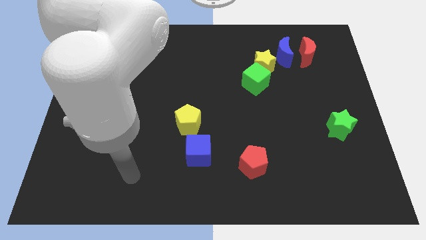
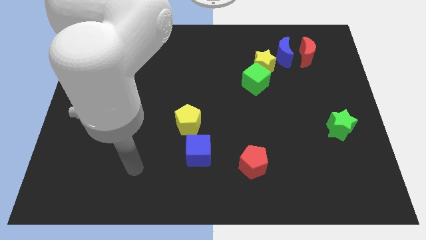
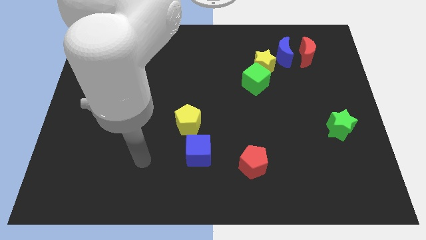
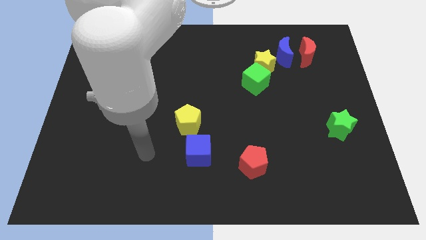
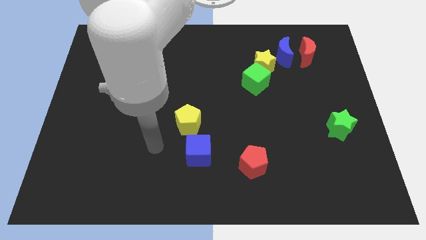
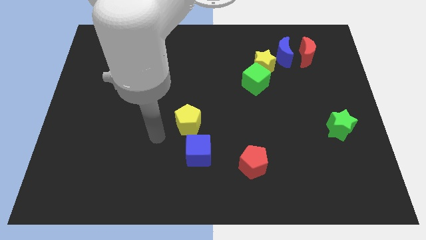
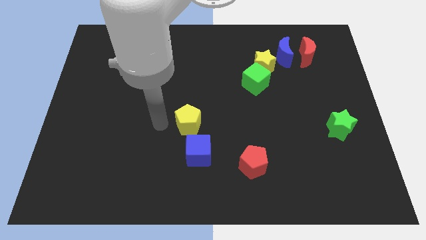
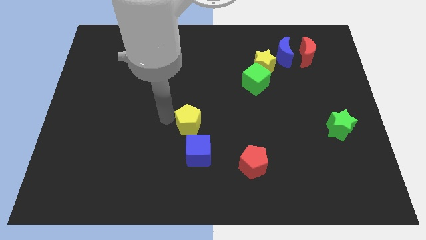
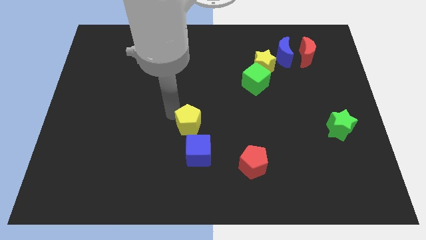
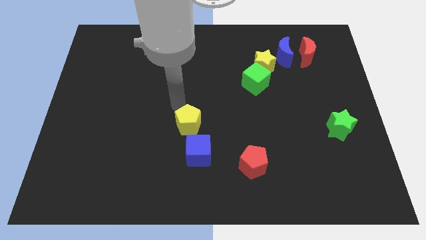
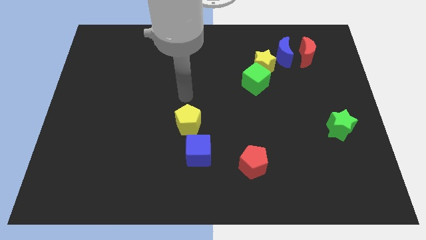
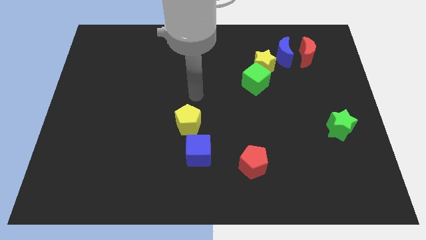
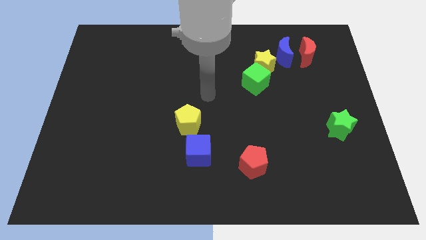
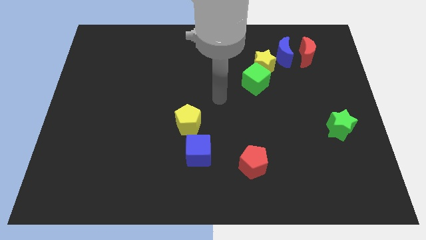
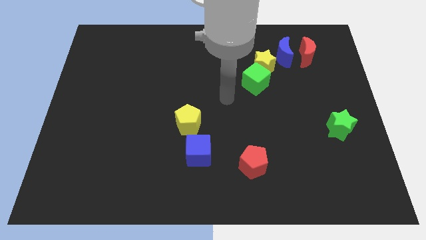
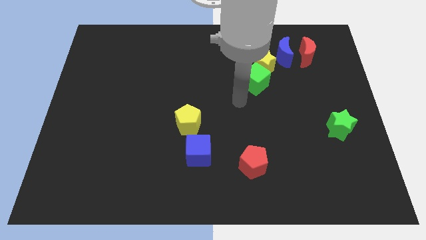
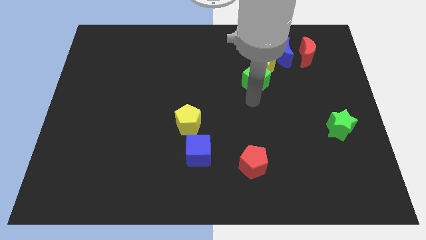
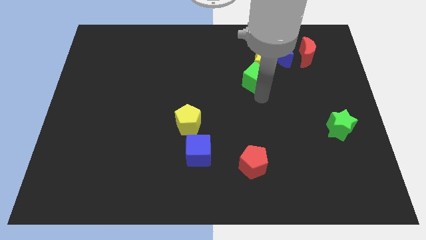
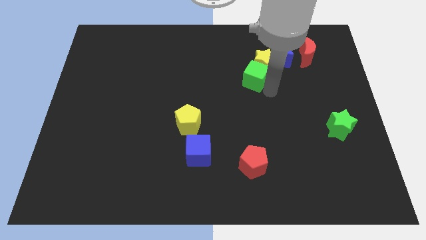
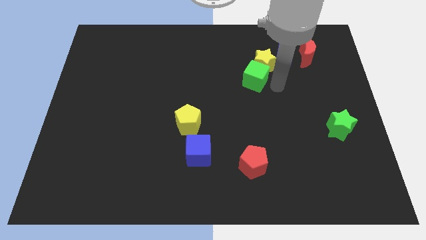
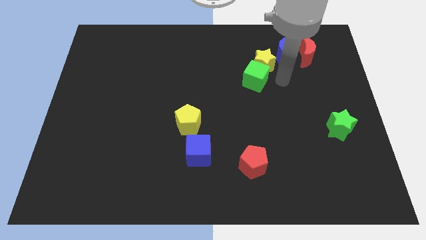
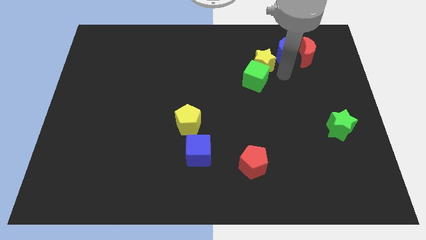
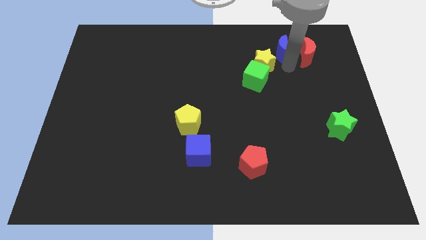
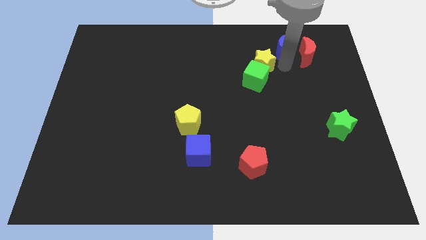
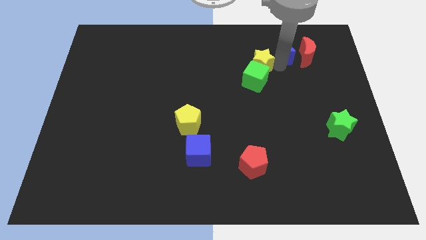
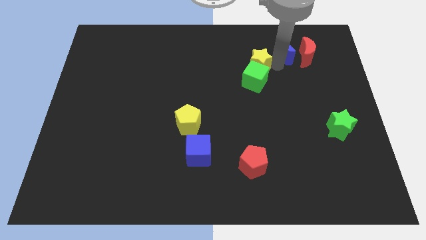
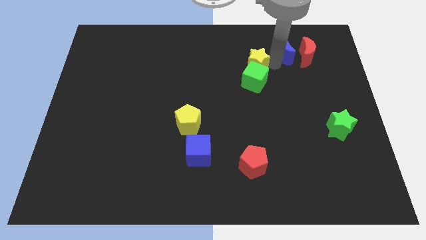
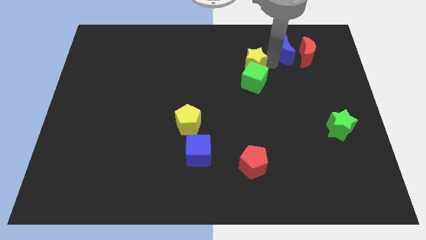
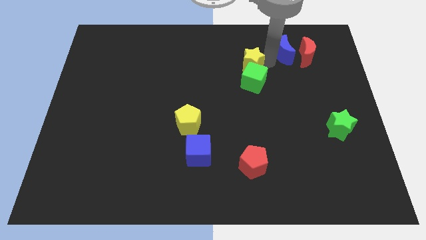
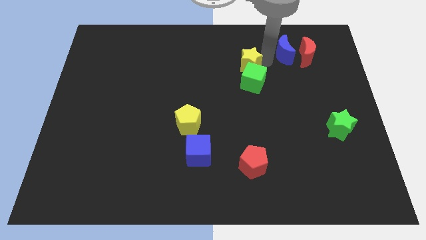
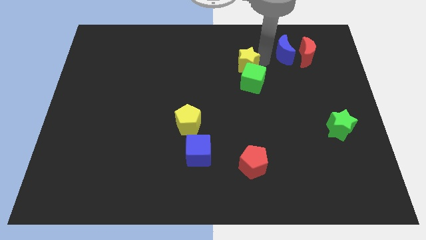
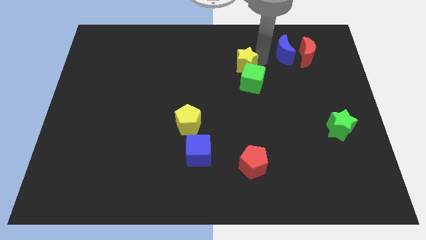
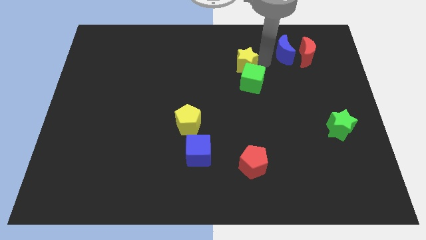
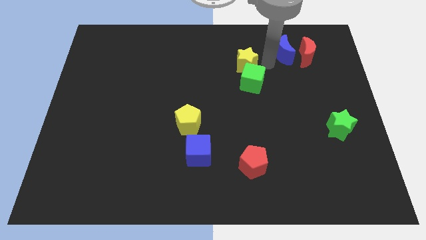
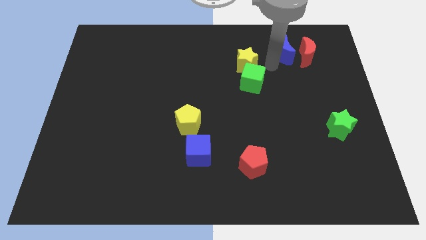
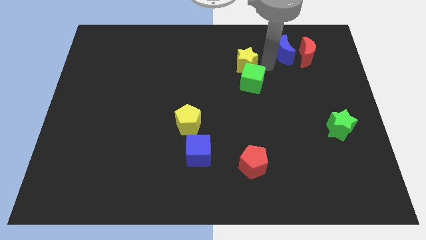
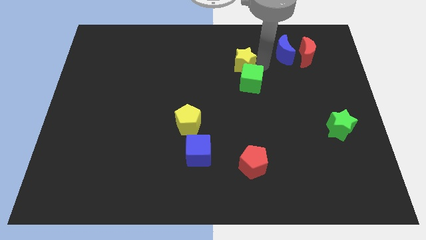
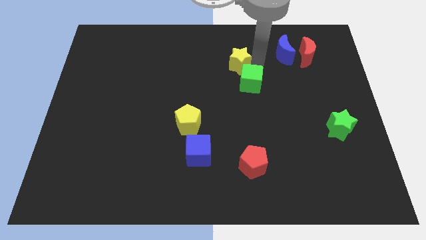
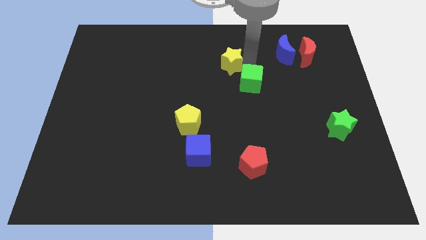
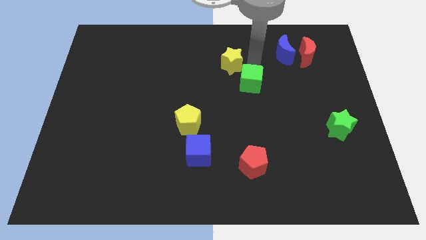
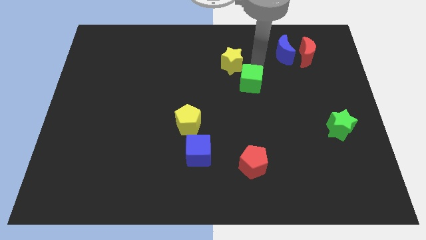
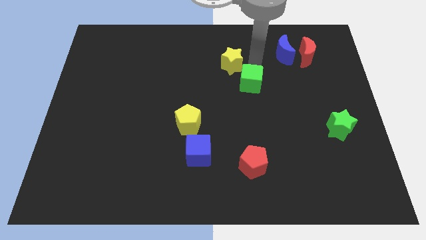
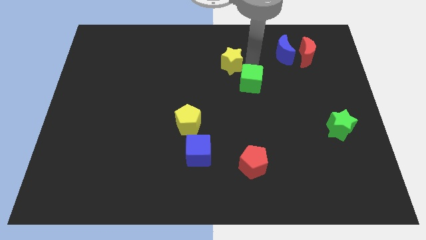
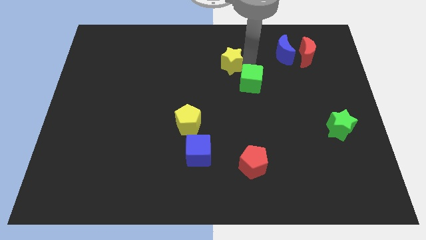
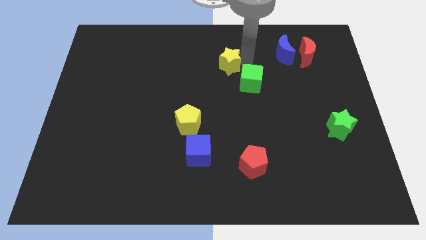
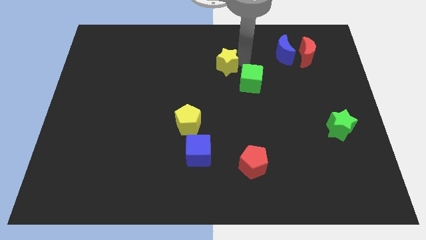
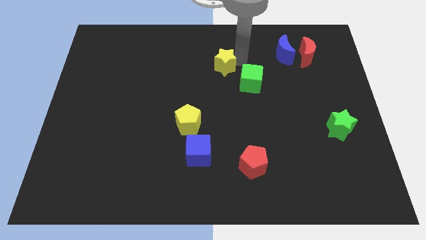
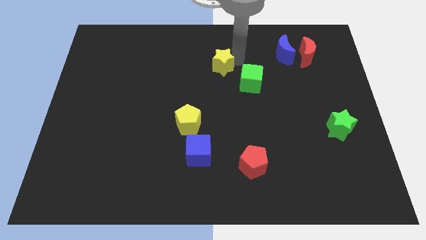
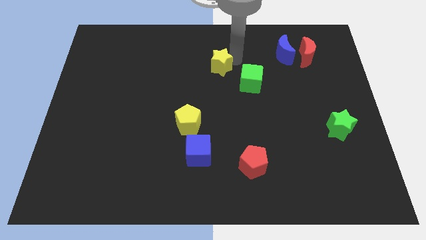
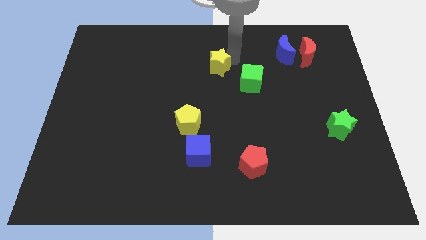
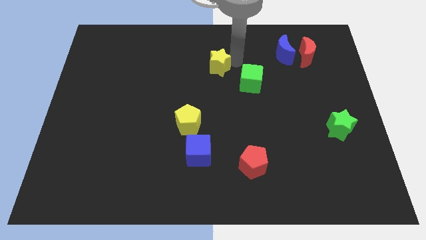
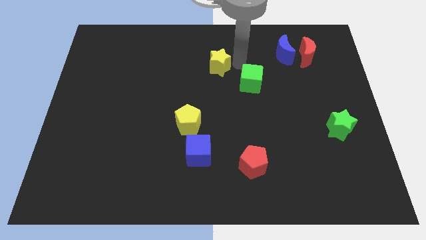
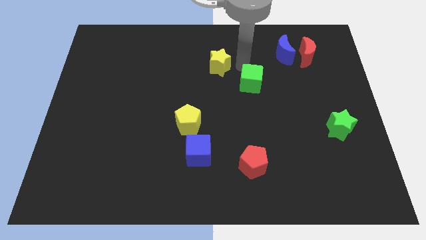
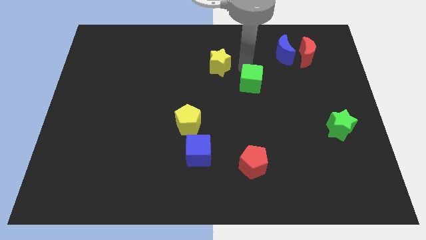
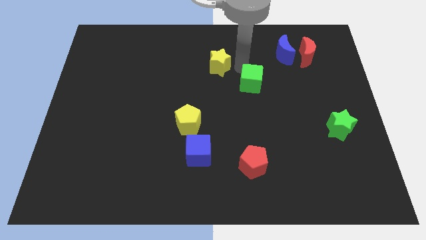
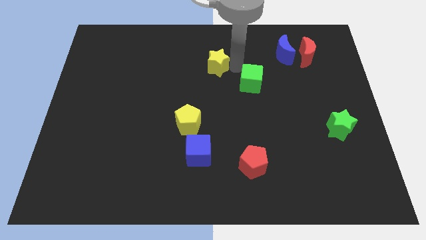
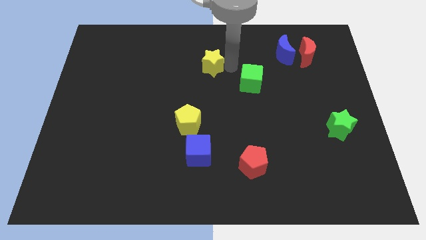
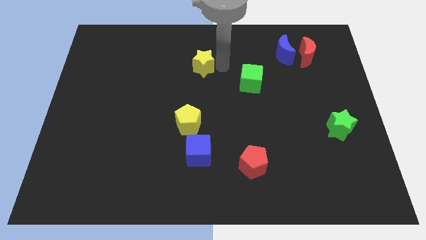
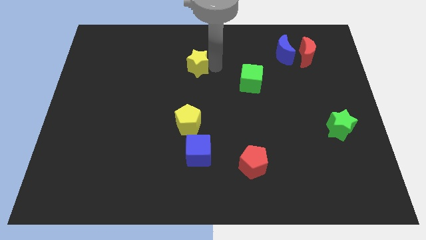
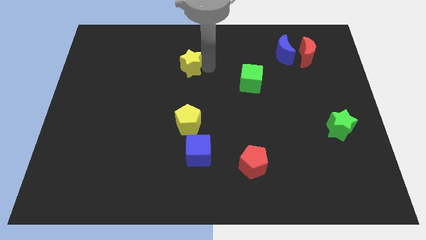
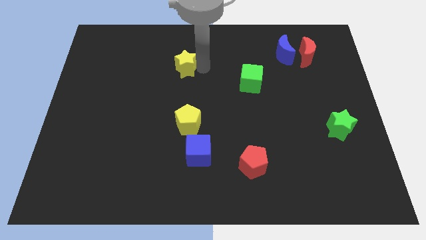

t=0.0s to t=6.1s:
move the yellow star left

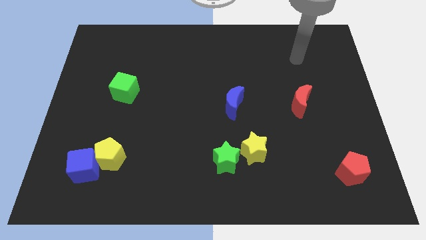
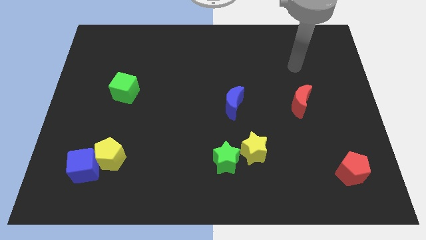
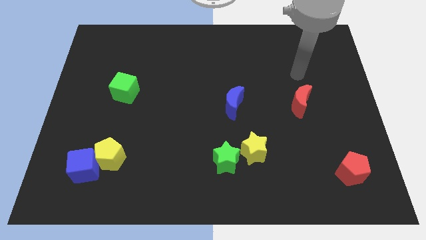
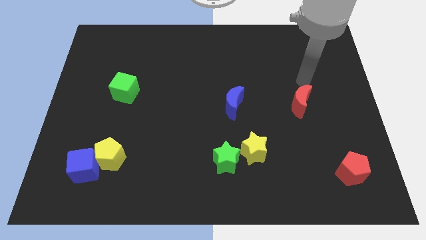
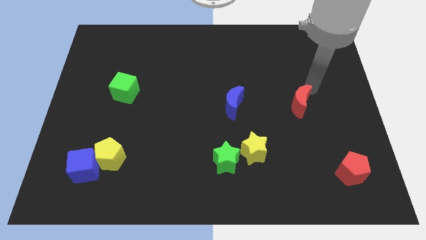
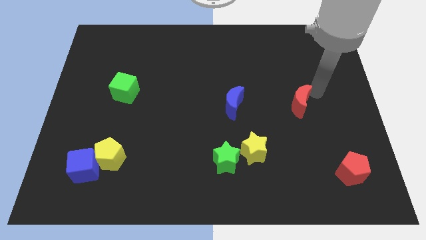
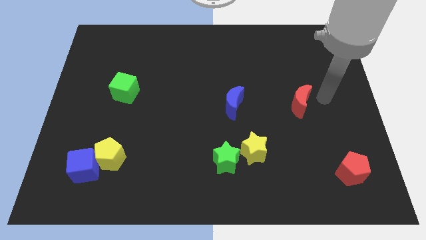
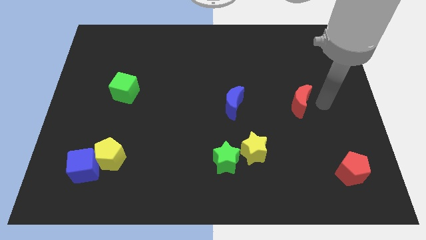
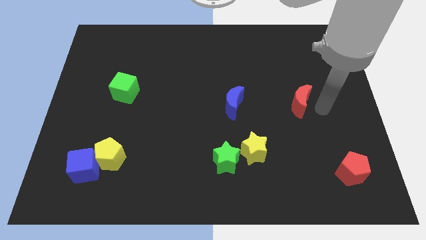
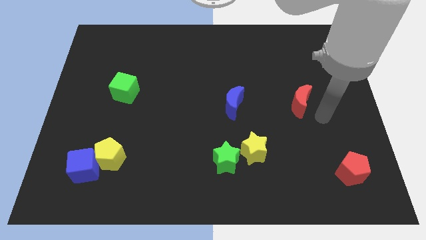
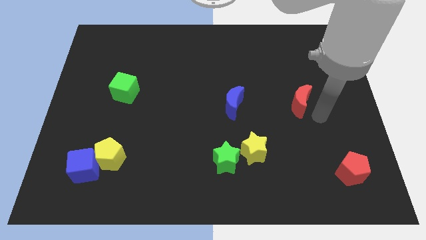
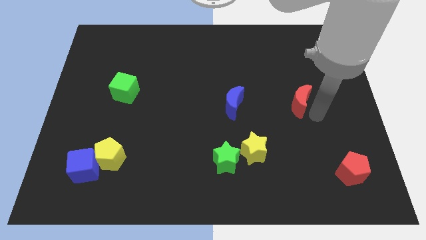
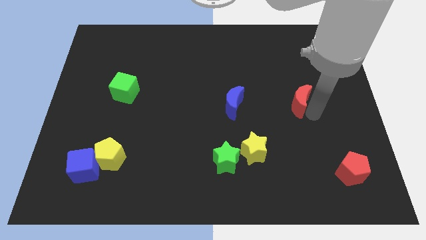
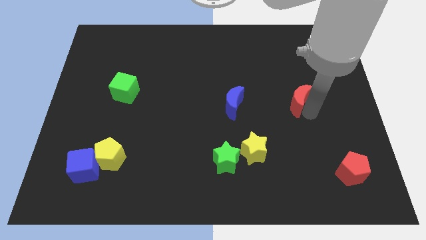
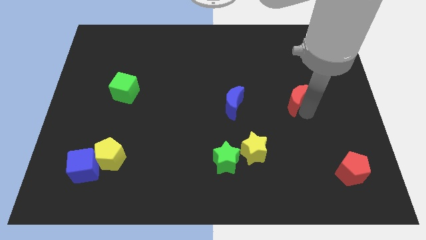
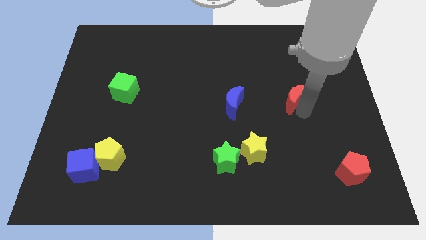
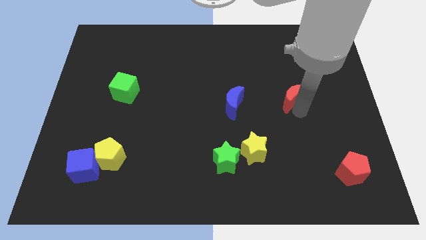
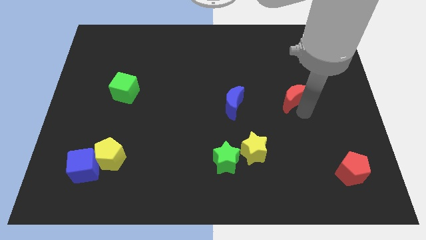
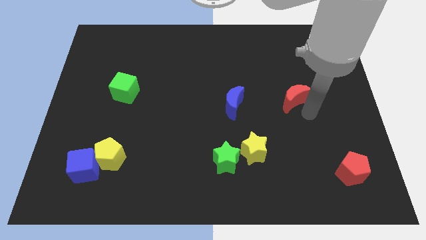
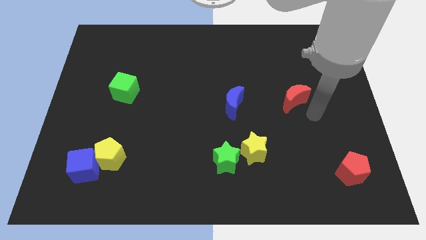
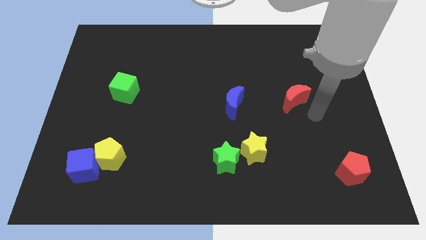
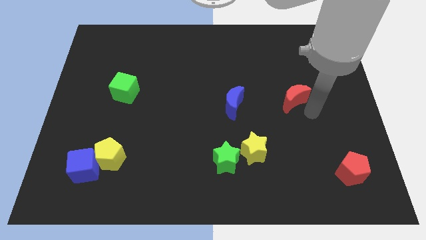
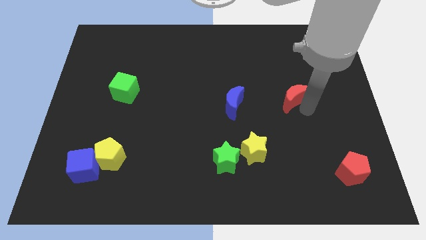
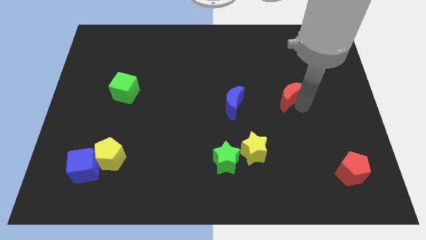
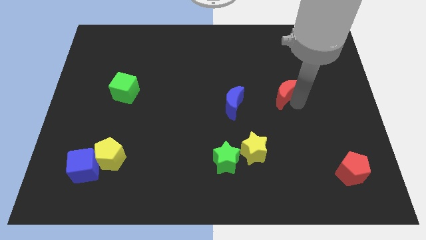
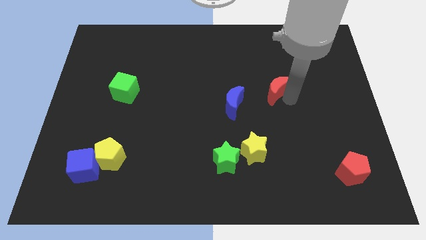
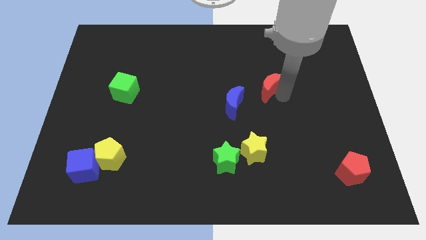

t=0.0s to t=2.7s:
push the red moon a bit upwards and left diagonally
